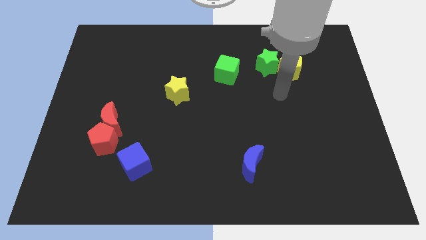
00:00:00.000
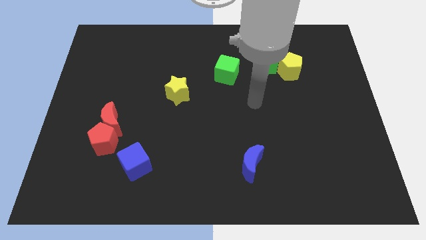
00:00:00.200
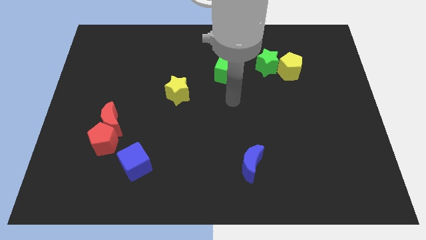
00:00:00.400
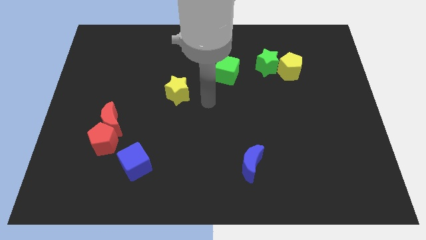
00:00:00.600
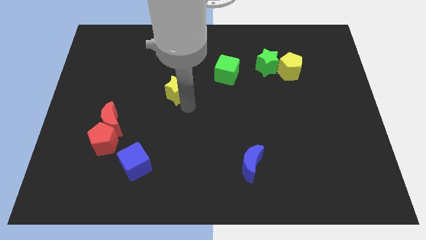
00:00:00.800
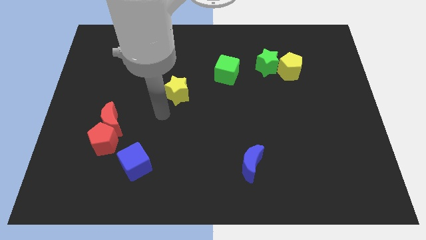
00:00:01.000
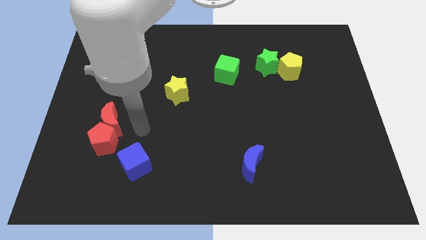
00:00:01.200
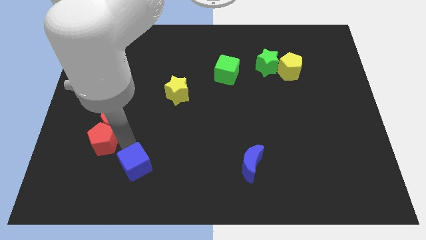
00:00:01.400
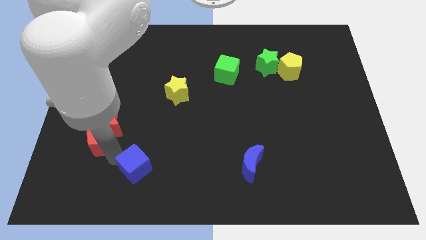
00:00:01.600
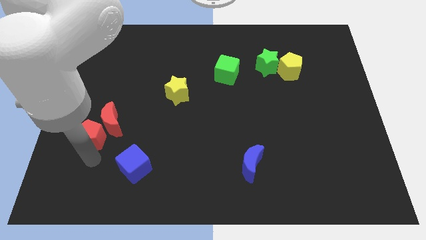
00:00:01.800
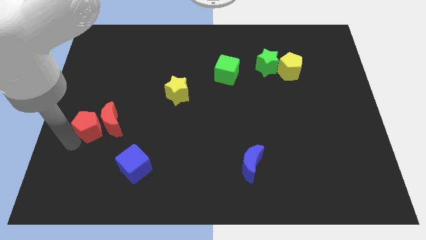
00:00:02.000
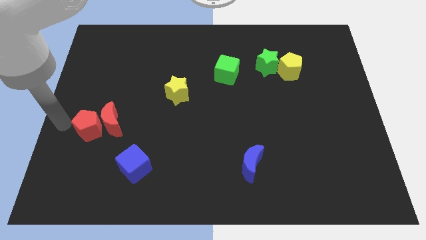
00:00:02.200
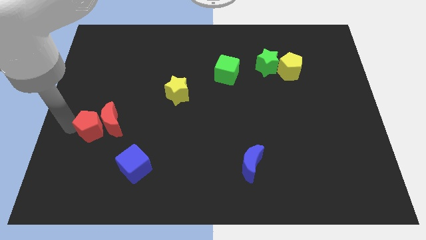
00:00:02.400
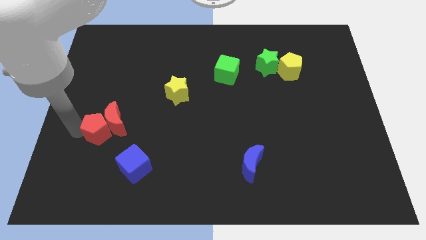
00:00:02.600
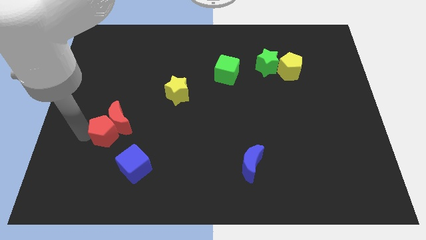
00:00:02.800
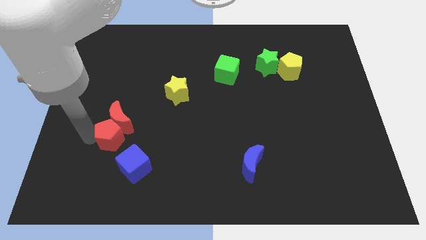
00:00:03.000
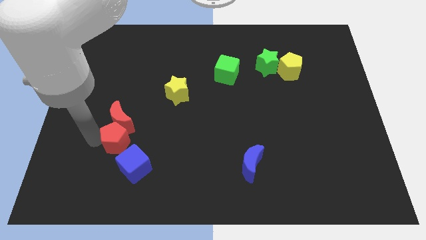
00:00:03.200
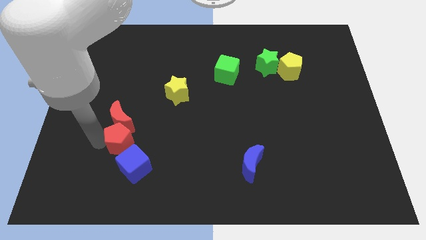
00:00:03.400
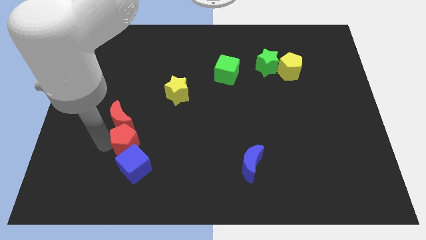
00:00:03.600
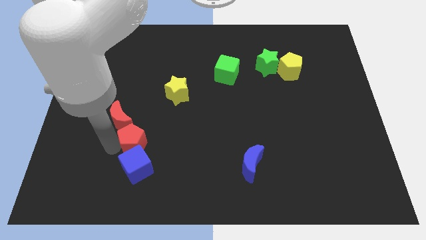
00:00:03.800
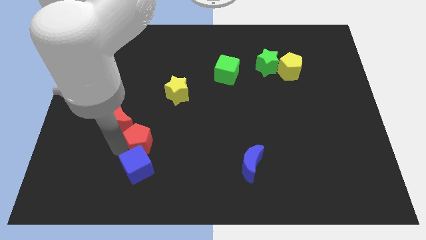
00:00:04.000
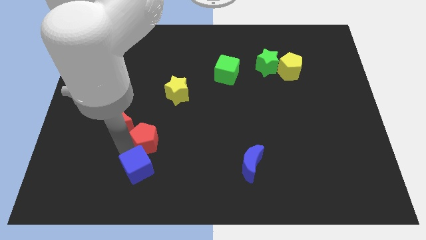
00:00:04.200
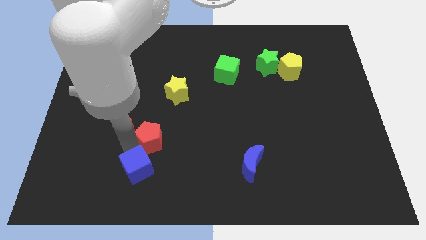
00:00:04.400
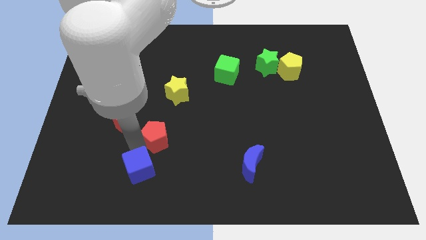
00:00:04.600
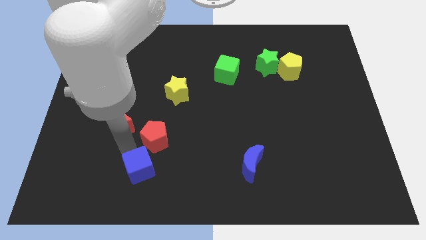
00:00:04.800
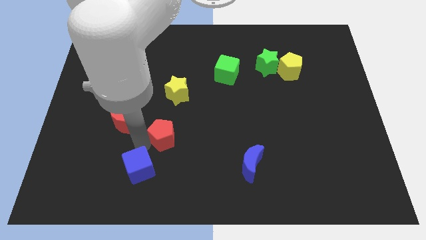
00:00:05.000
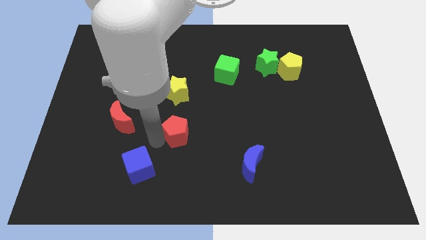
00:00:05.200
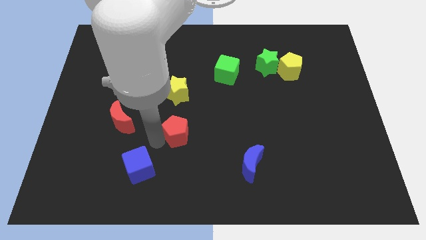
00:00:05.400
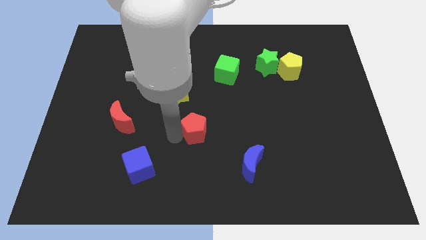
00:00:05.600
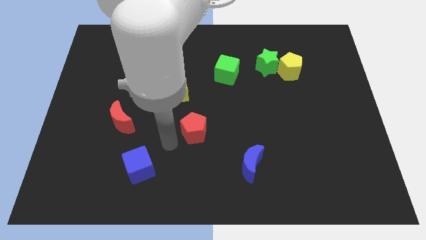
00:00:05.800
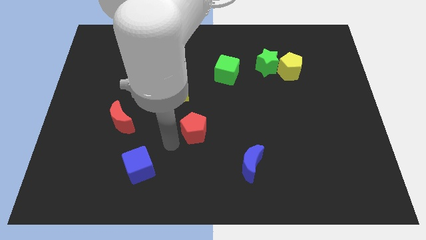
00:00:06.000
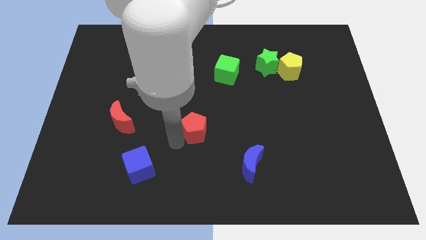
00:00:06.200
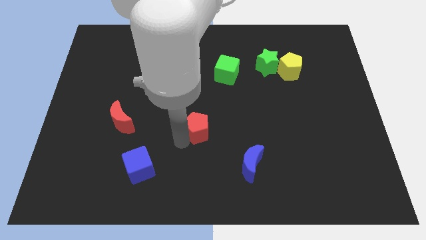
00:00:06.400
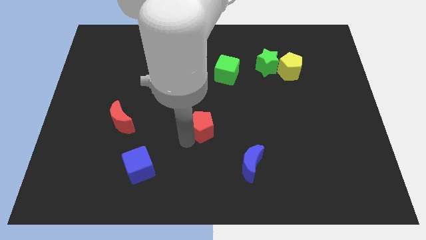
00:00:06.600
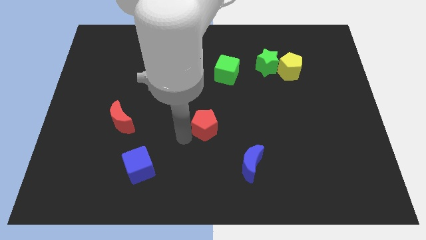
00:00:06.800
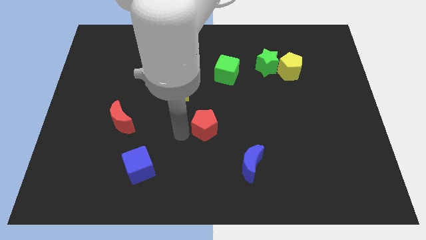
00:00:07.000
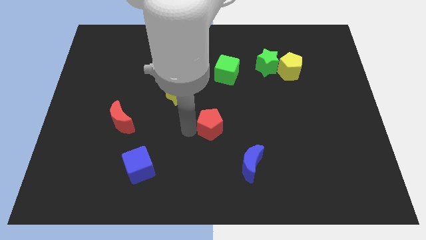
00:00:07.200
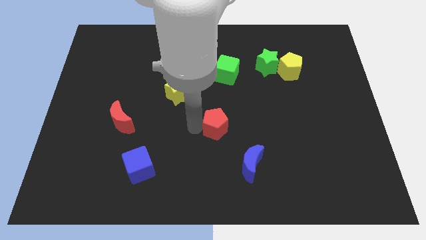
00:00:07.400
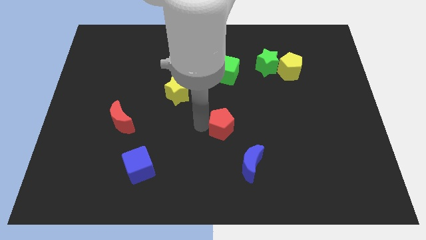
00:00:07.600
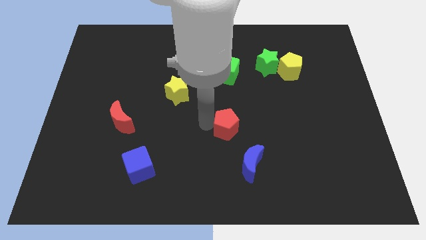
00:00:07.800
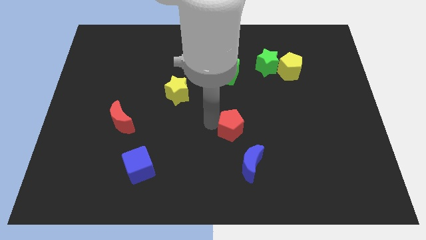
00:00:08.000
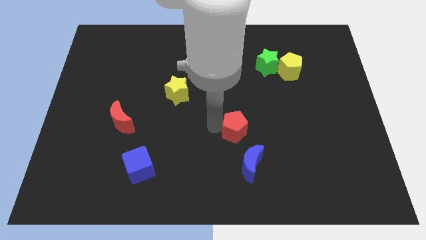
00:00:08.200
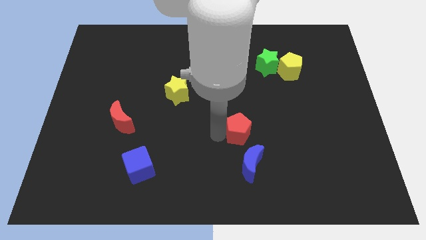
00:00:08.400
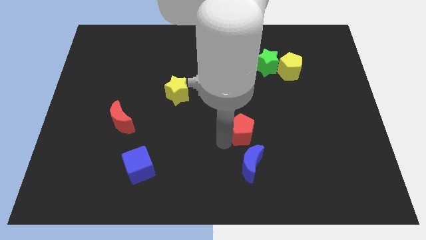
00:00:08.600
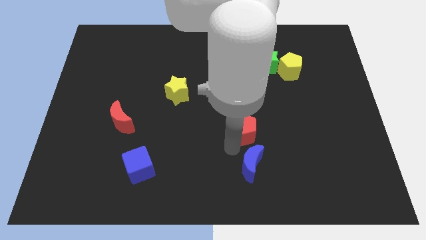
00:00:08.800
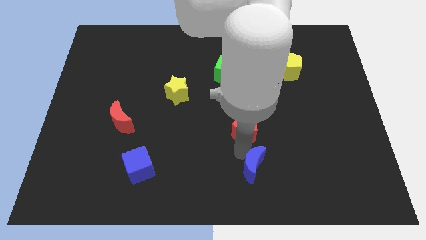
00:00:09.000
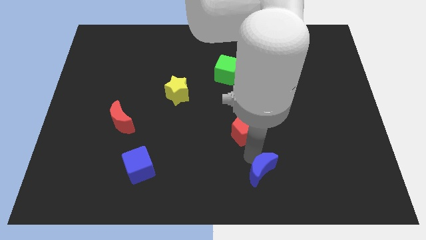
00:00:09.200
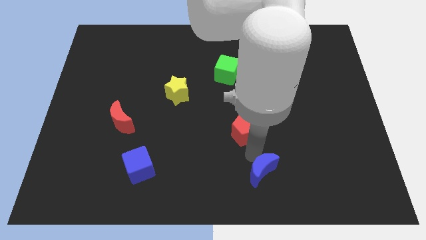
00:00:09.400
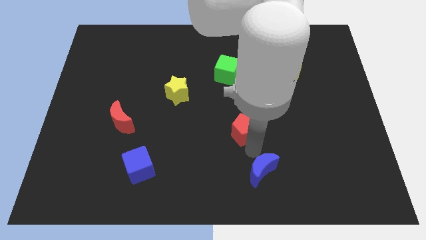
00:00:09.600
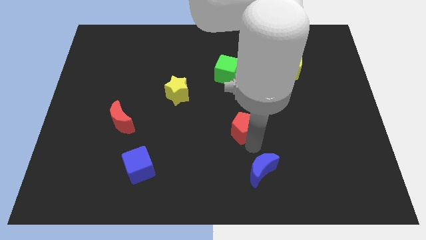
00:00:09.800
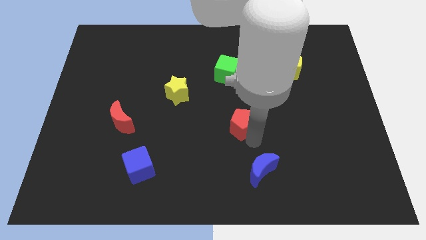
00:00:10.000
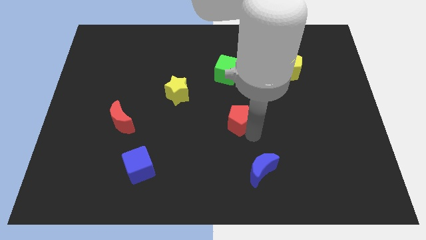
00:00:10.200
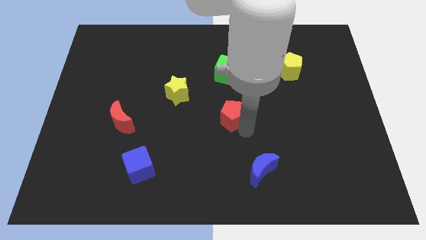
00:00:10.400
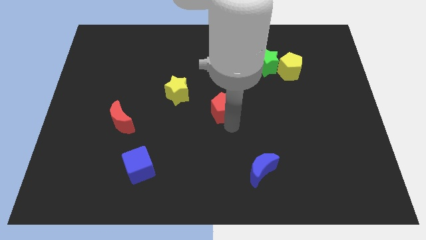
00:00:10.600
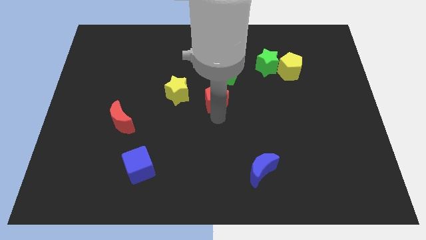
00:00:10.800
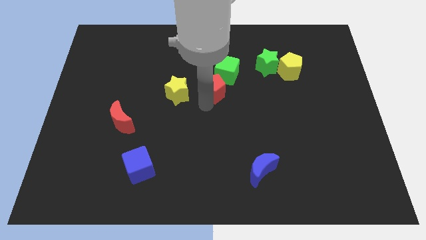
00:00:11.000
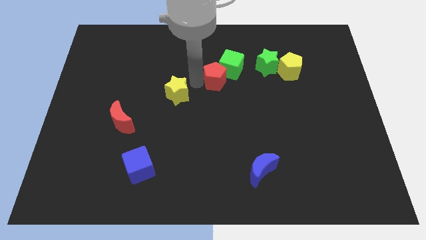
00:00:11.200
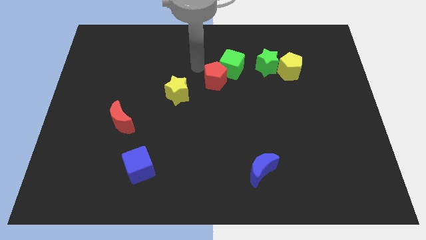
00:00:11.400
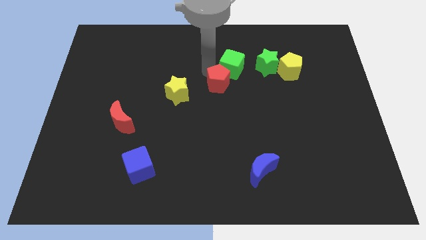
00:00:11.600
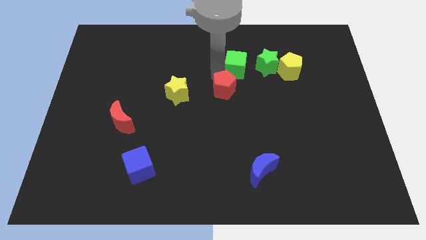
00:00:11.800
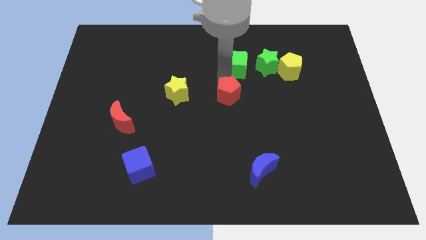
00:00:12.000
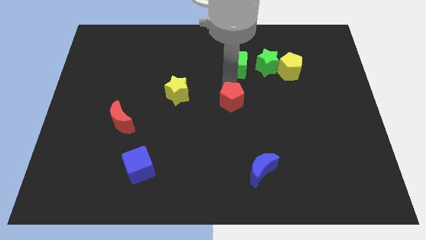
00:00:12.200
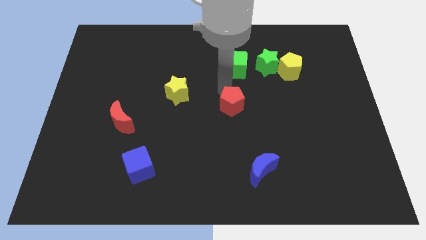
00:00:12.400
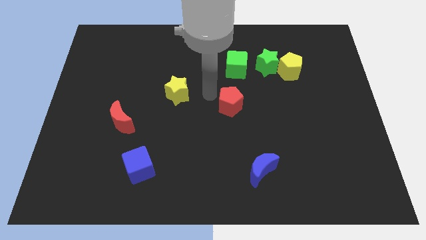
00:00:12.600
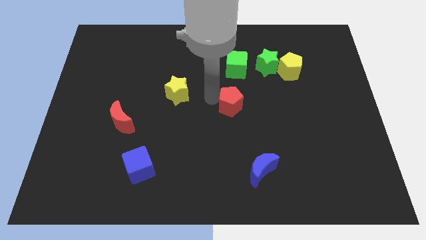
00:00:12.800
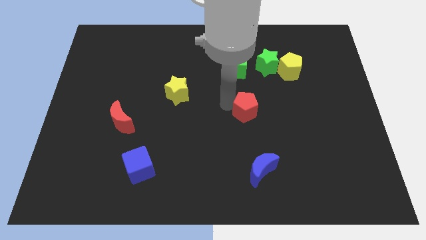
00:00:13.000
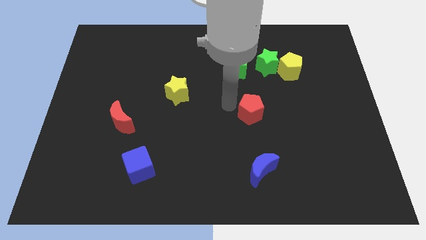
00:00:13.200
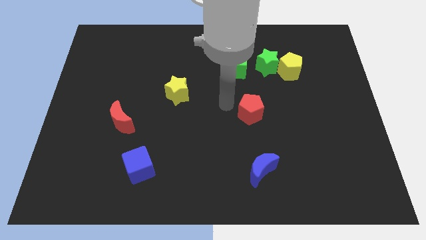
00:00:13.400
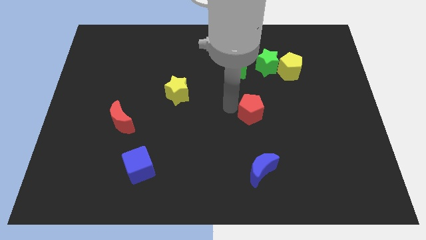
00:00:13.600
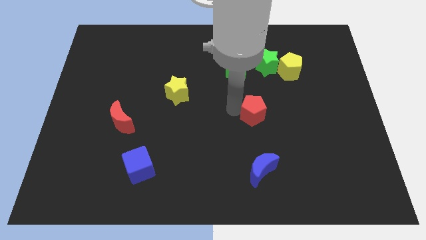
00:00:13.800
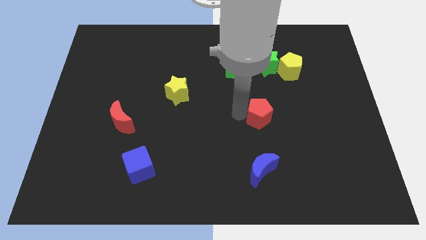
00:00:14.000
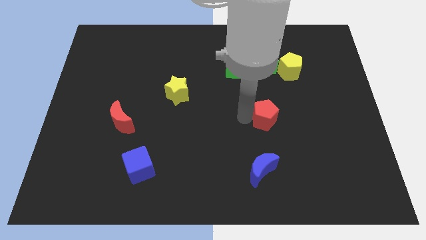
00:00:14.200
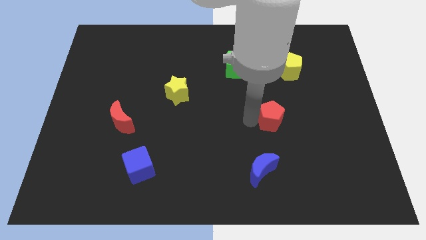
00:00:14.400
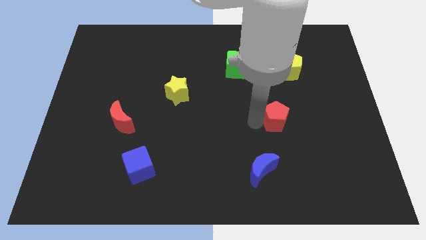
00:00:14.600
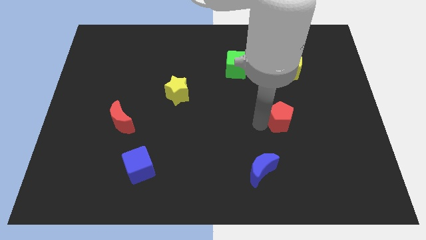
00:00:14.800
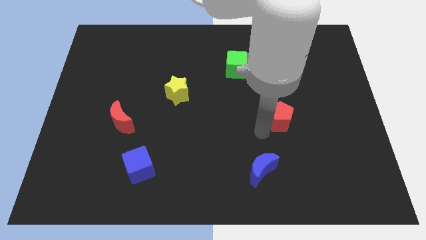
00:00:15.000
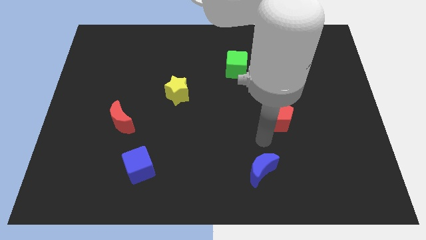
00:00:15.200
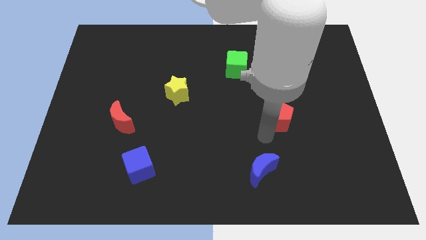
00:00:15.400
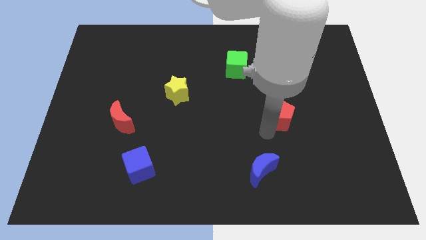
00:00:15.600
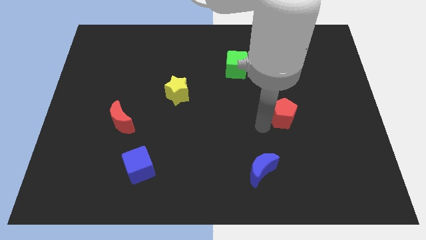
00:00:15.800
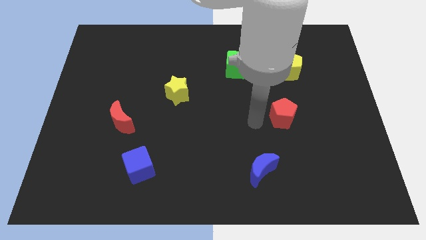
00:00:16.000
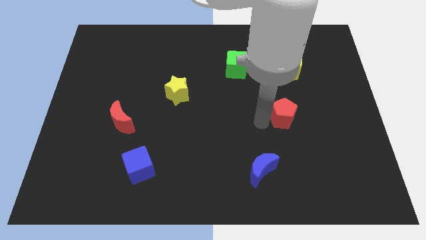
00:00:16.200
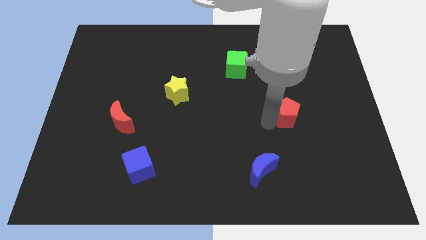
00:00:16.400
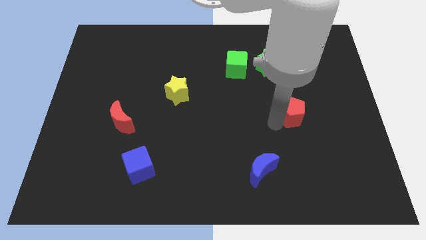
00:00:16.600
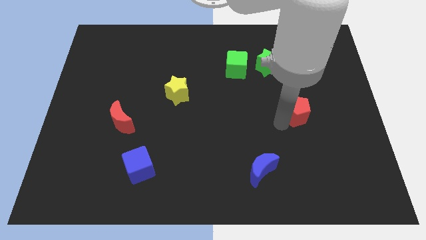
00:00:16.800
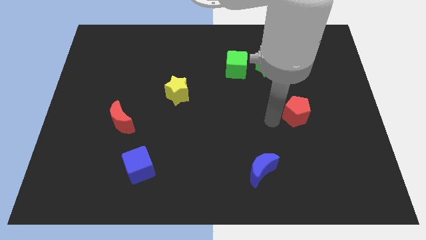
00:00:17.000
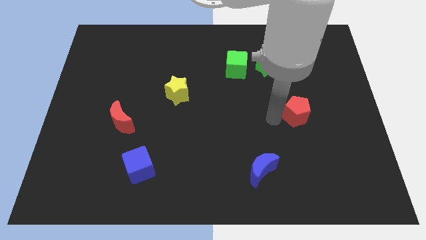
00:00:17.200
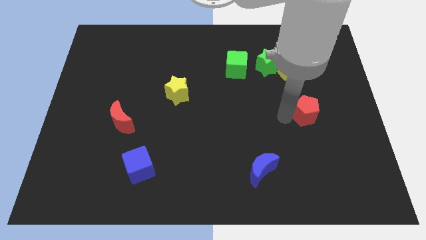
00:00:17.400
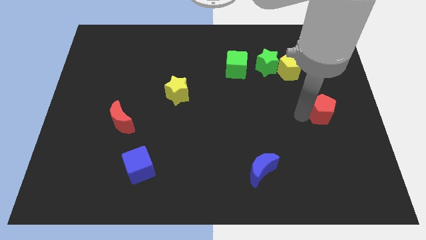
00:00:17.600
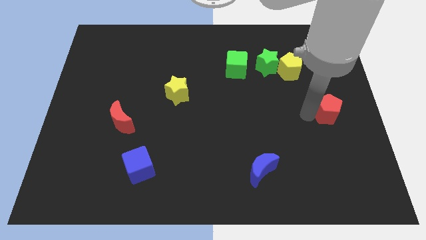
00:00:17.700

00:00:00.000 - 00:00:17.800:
move the red pentagon to the center right
